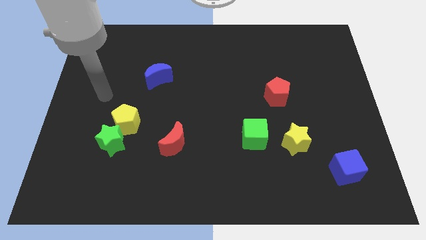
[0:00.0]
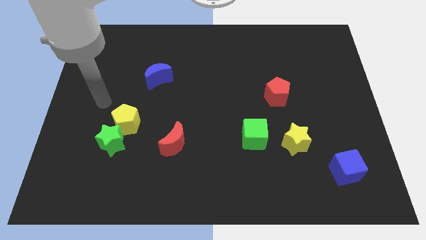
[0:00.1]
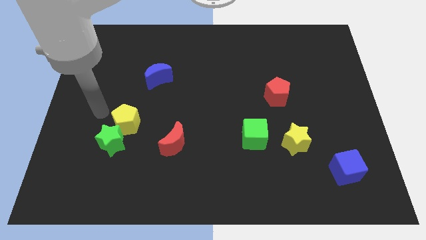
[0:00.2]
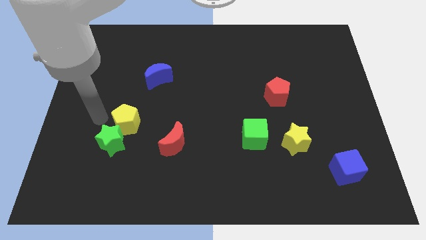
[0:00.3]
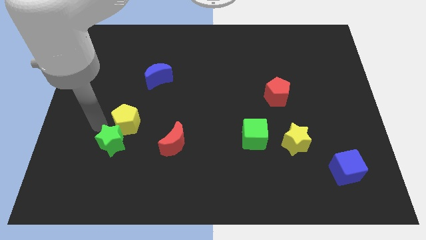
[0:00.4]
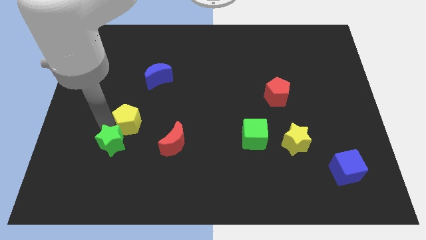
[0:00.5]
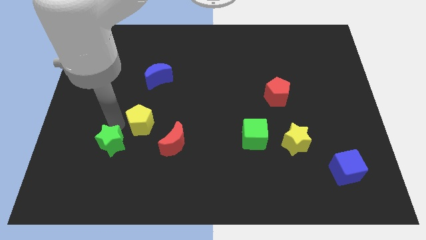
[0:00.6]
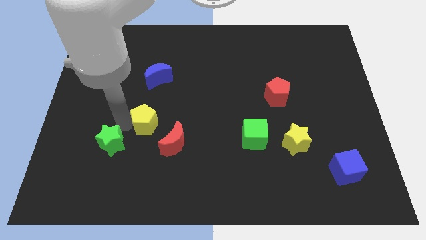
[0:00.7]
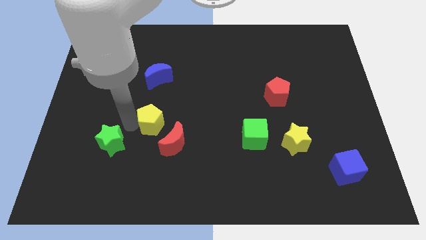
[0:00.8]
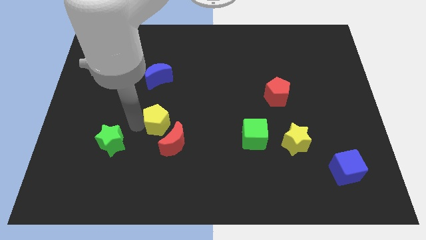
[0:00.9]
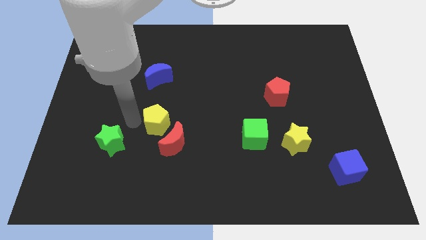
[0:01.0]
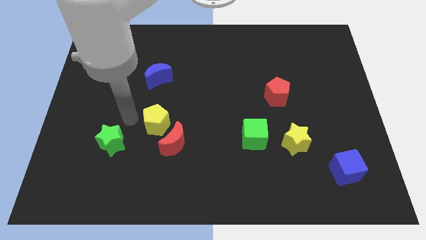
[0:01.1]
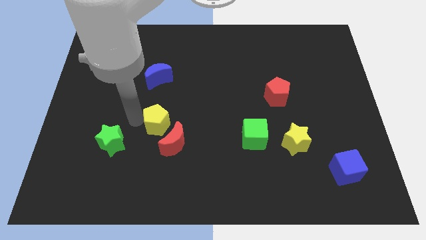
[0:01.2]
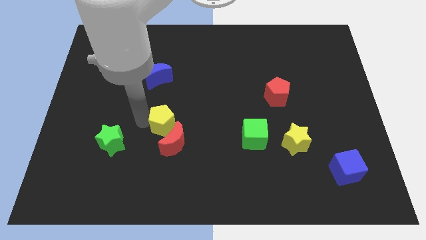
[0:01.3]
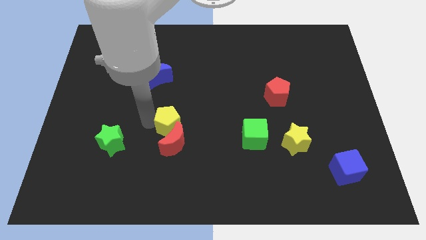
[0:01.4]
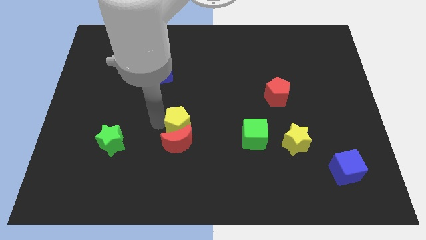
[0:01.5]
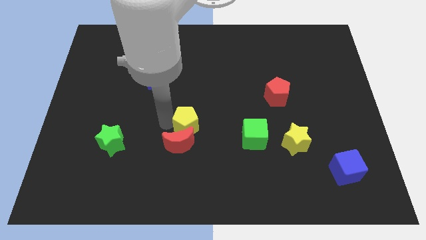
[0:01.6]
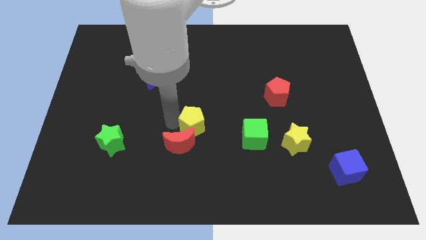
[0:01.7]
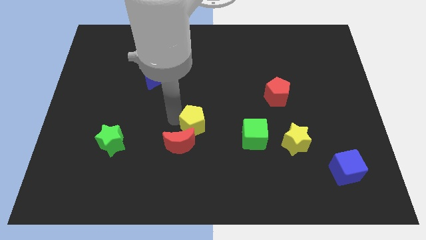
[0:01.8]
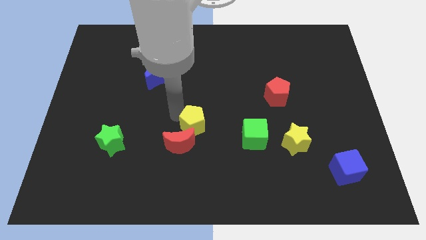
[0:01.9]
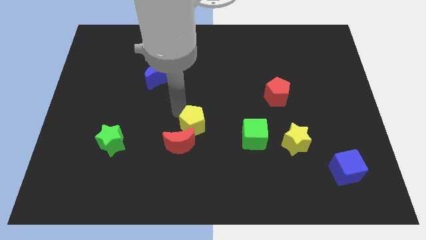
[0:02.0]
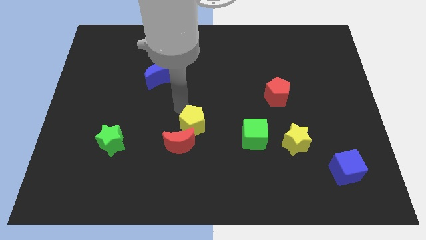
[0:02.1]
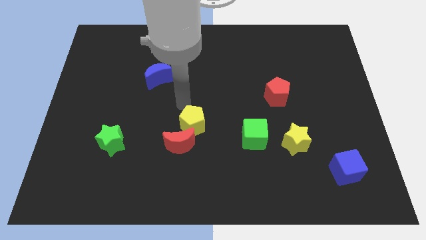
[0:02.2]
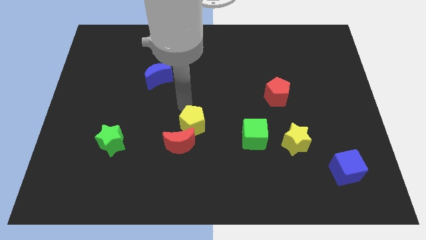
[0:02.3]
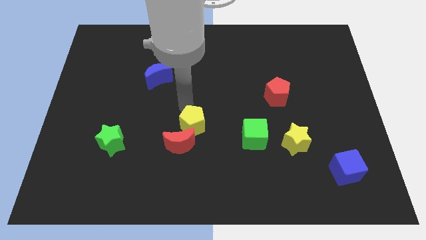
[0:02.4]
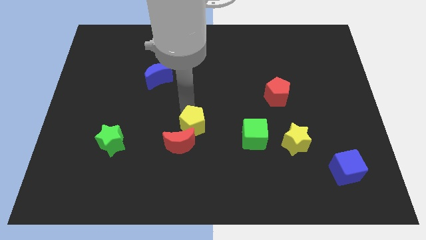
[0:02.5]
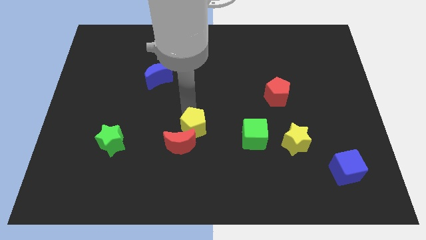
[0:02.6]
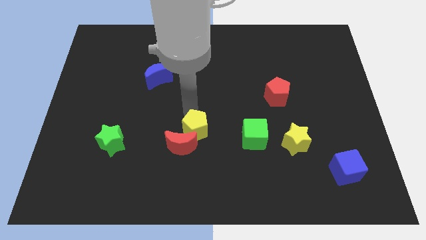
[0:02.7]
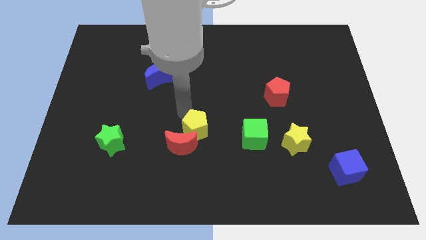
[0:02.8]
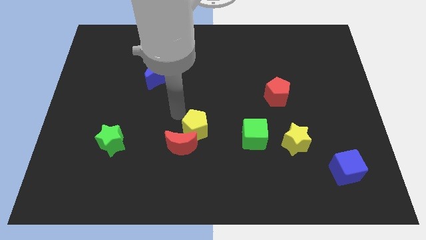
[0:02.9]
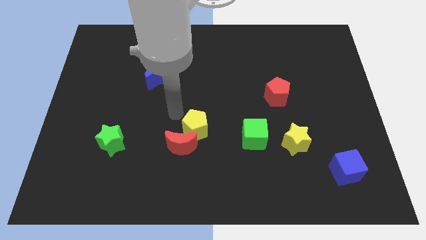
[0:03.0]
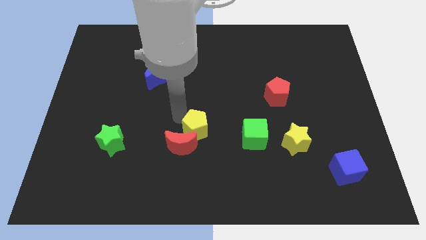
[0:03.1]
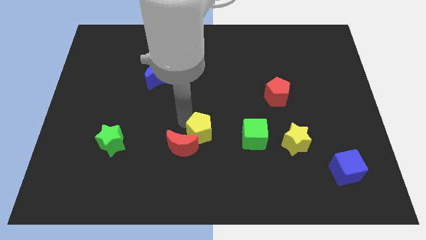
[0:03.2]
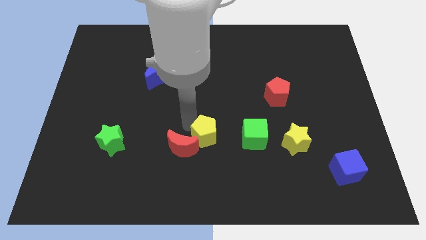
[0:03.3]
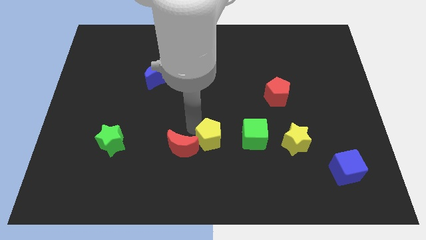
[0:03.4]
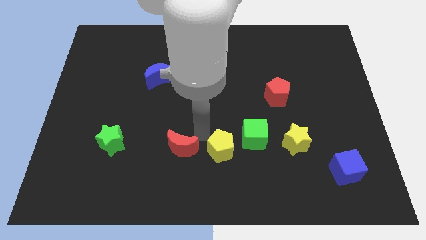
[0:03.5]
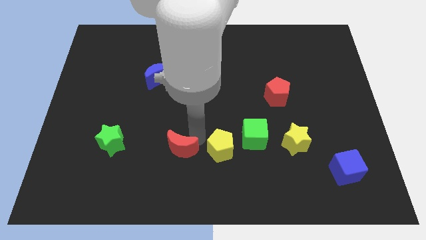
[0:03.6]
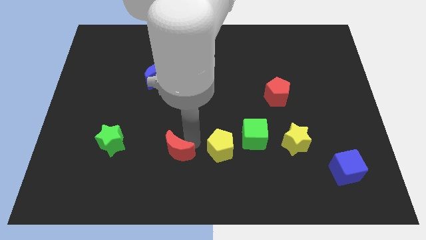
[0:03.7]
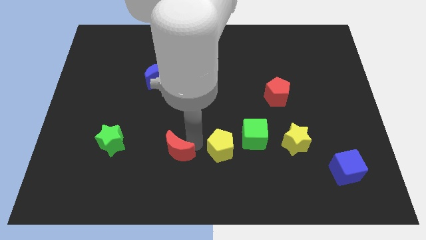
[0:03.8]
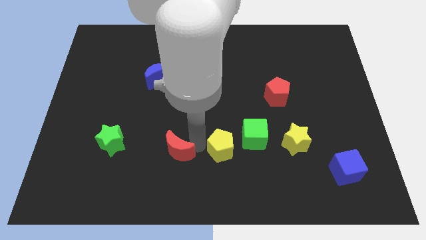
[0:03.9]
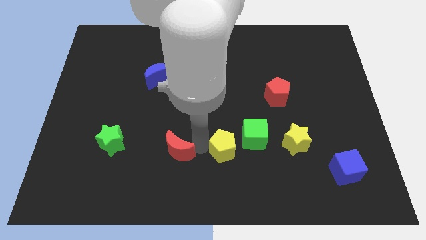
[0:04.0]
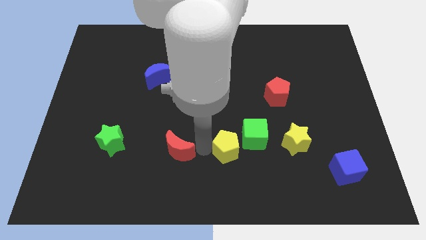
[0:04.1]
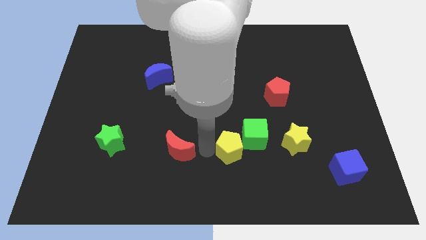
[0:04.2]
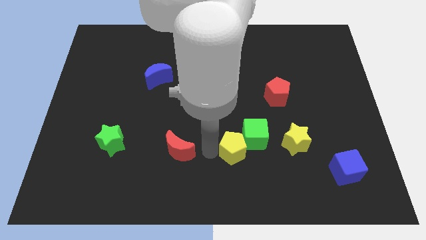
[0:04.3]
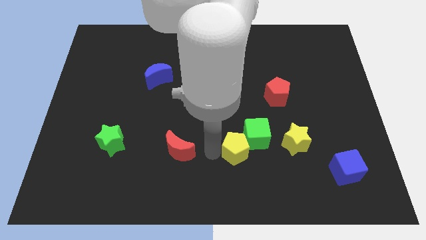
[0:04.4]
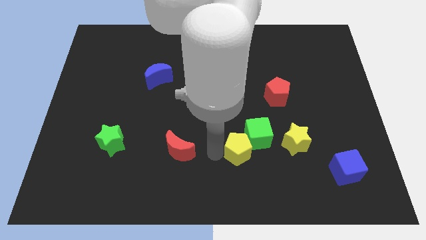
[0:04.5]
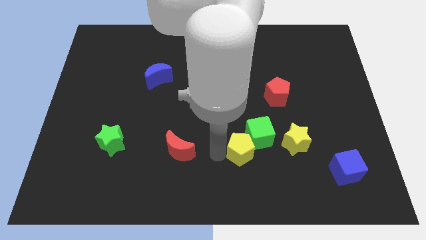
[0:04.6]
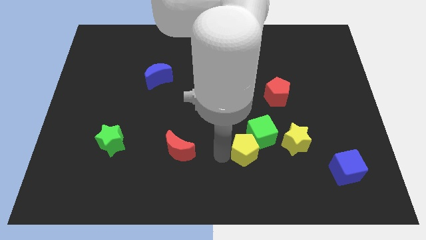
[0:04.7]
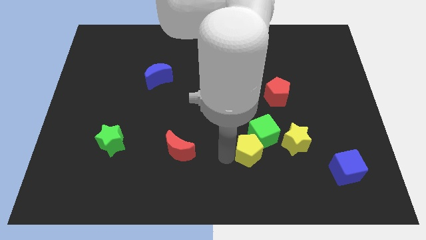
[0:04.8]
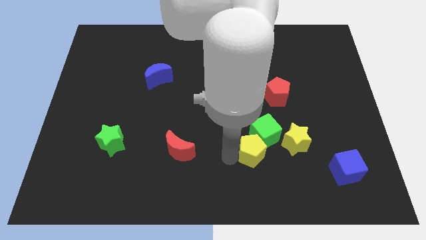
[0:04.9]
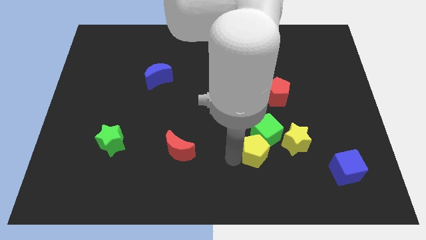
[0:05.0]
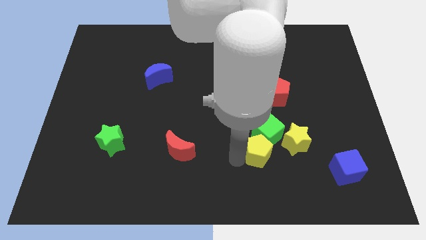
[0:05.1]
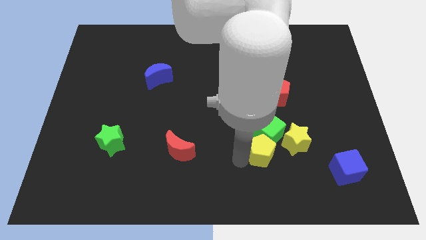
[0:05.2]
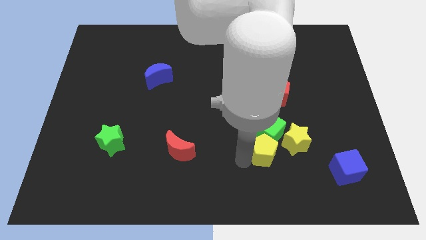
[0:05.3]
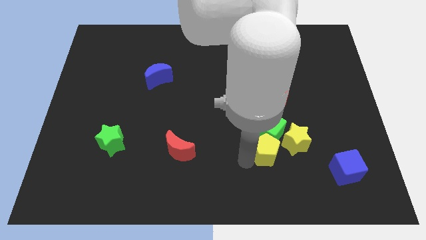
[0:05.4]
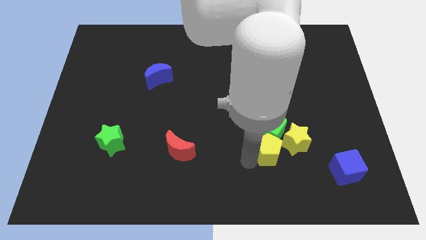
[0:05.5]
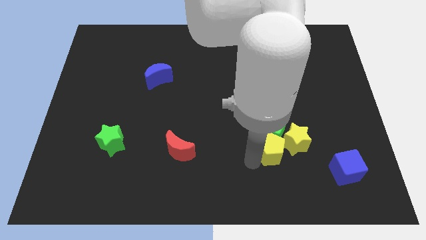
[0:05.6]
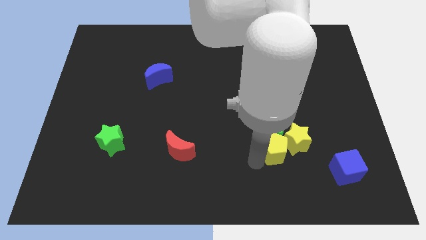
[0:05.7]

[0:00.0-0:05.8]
slide the yellow pentagon to the yellow star
